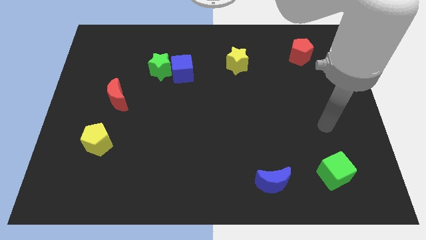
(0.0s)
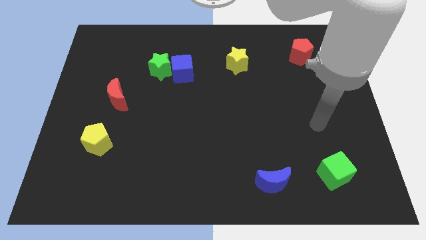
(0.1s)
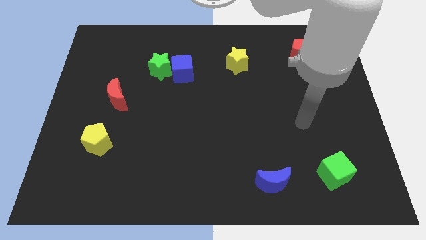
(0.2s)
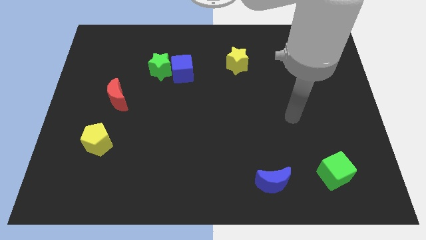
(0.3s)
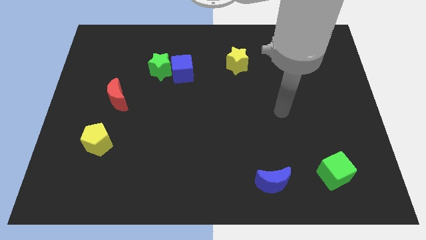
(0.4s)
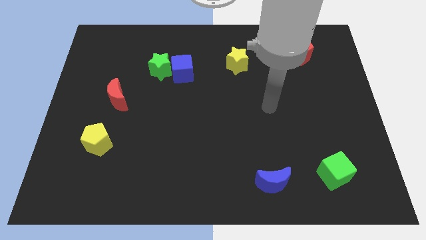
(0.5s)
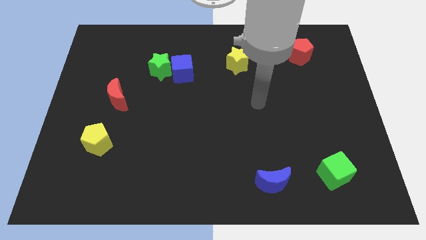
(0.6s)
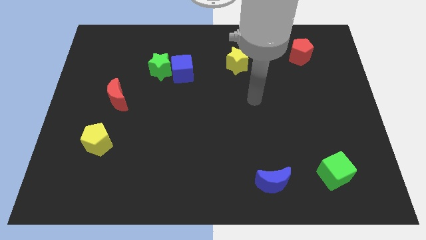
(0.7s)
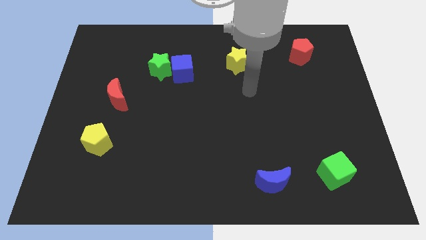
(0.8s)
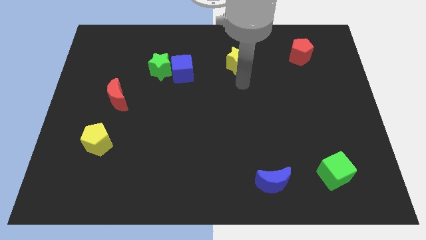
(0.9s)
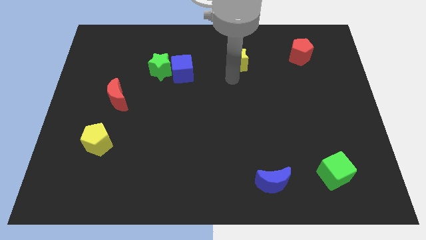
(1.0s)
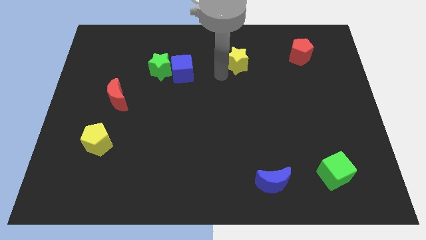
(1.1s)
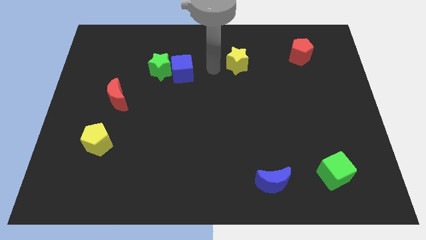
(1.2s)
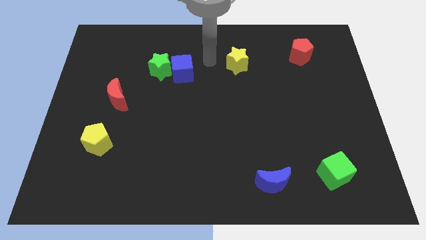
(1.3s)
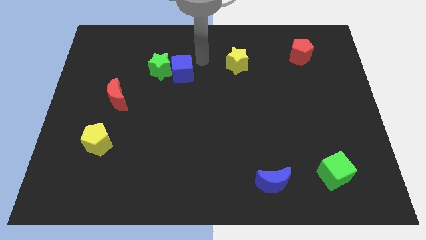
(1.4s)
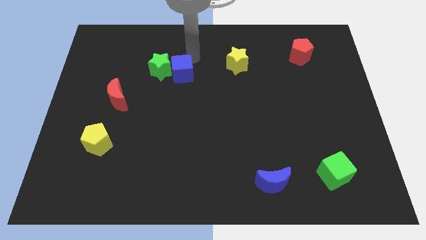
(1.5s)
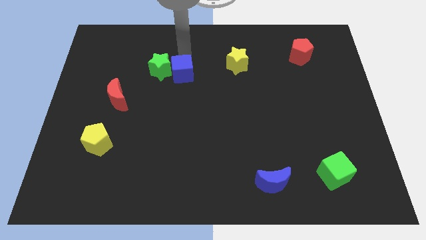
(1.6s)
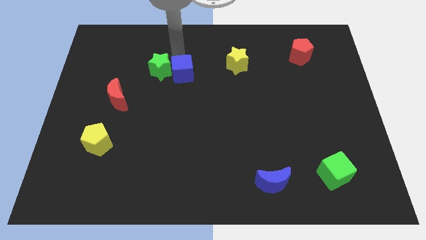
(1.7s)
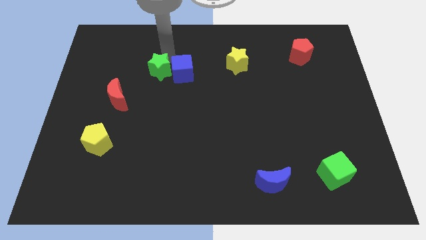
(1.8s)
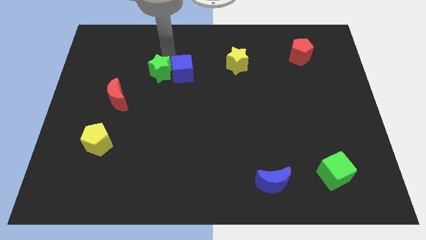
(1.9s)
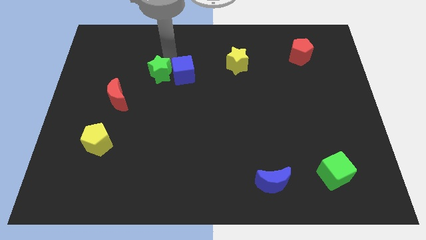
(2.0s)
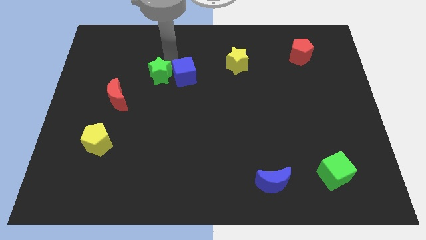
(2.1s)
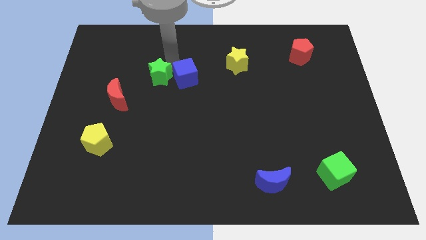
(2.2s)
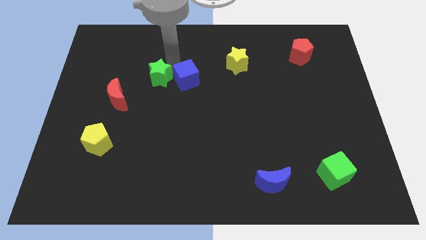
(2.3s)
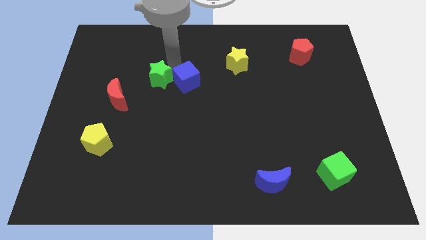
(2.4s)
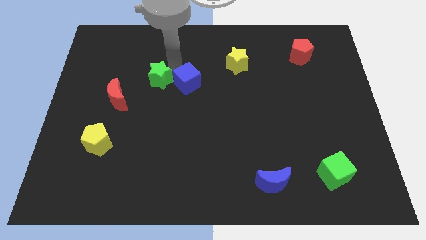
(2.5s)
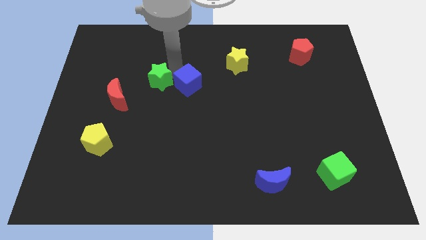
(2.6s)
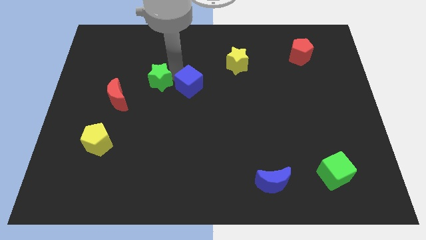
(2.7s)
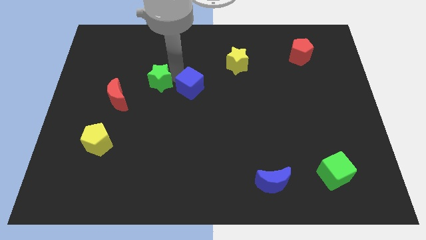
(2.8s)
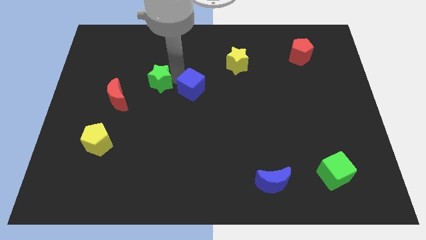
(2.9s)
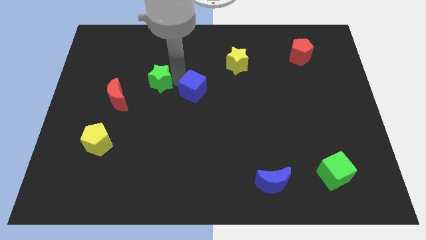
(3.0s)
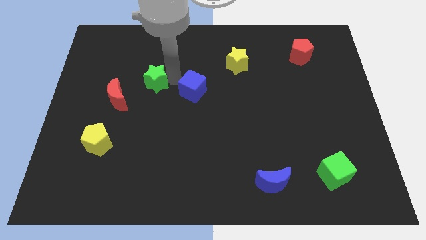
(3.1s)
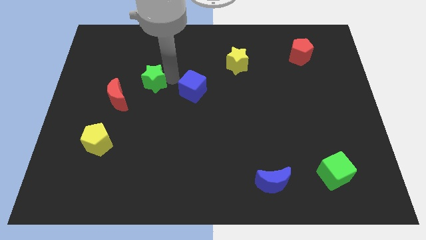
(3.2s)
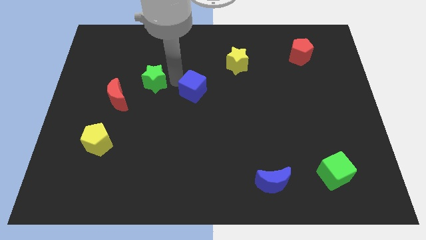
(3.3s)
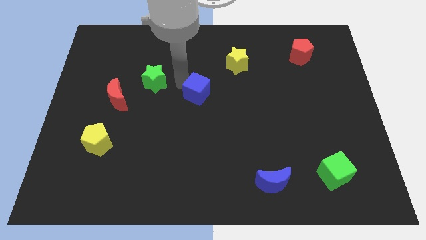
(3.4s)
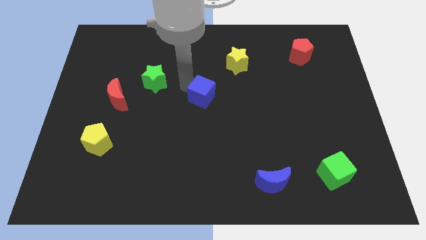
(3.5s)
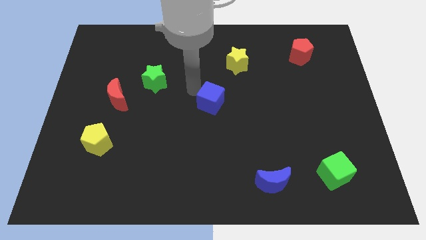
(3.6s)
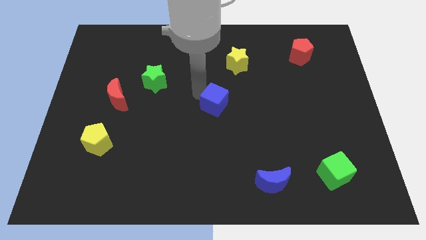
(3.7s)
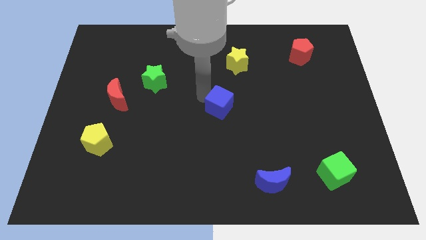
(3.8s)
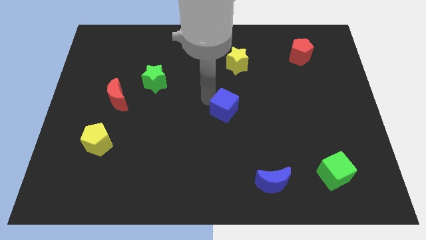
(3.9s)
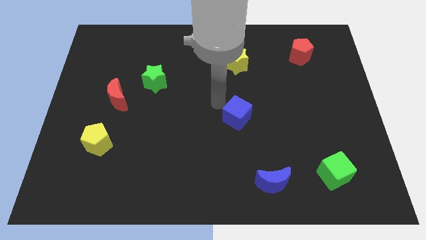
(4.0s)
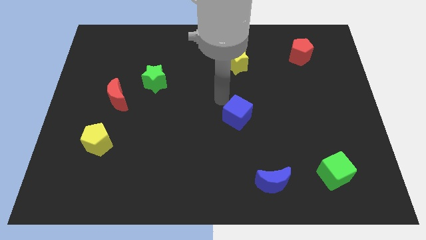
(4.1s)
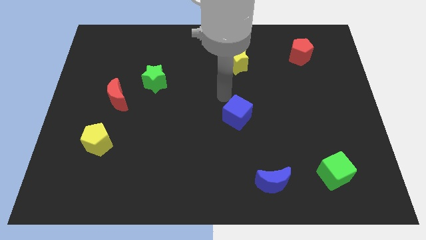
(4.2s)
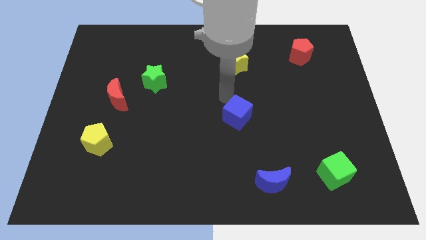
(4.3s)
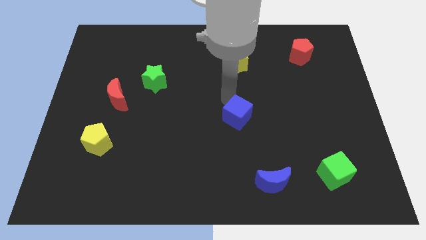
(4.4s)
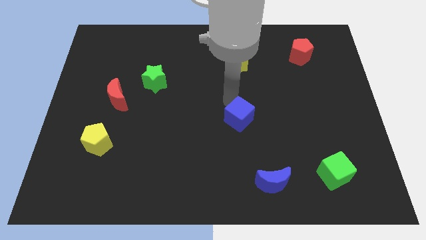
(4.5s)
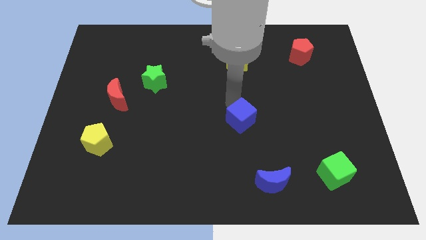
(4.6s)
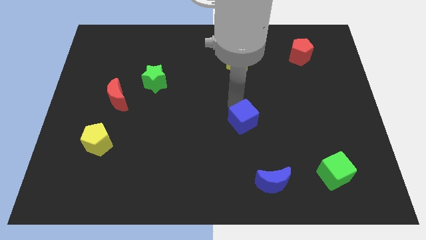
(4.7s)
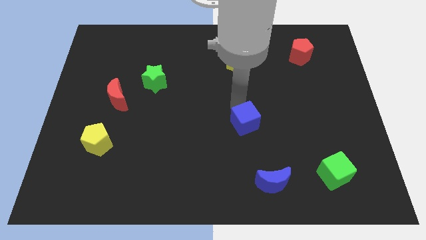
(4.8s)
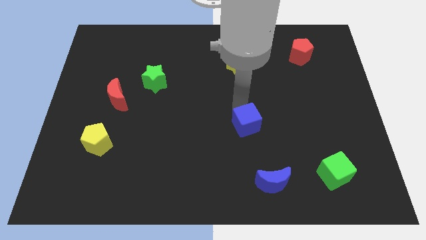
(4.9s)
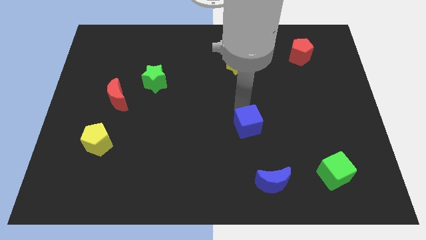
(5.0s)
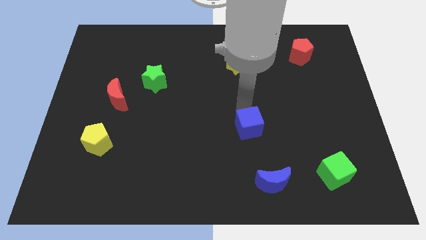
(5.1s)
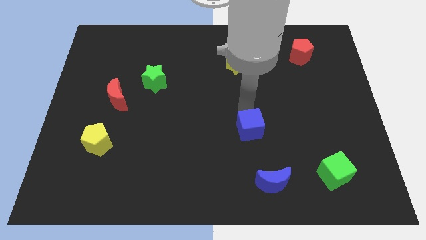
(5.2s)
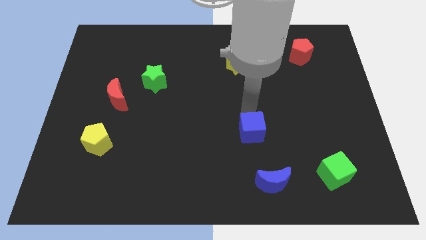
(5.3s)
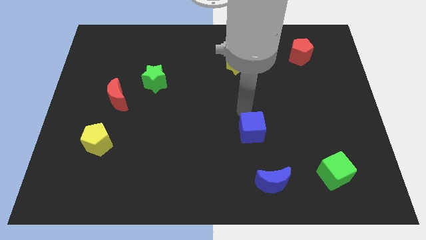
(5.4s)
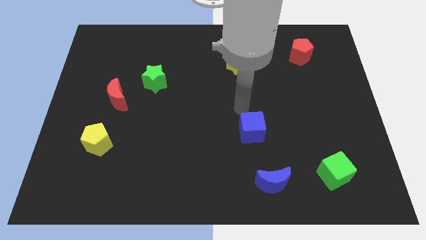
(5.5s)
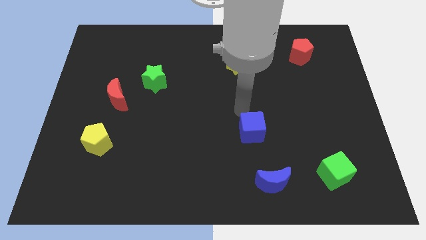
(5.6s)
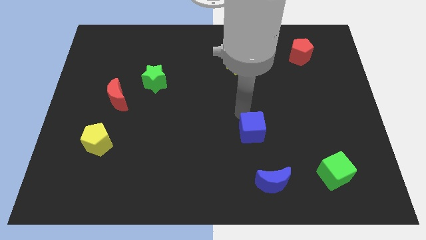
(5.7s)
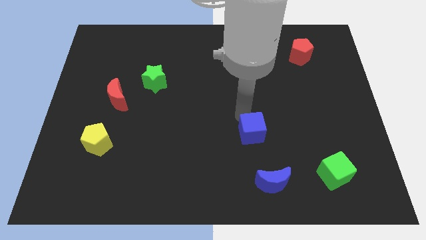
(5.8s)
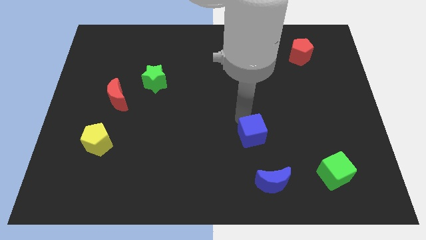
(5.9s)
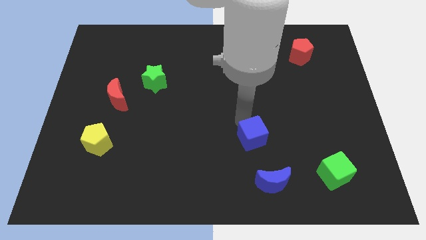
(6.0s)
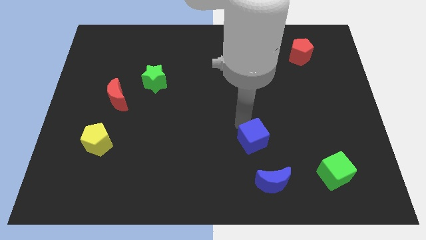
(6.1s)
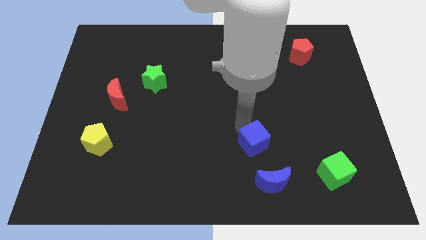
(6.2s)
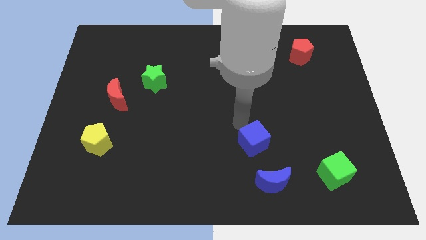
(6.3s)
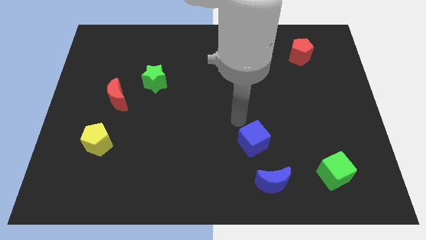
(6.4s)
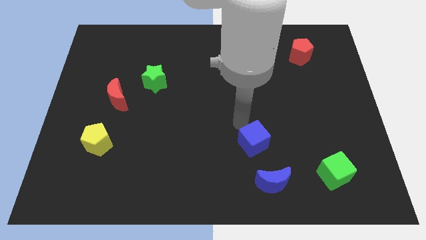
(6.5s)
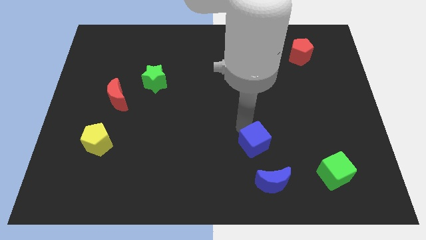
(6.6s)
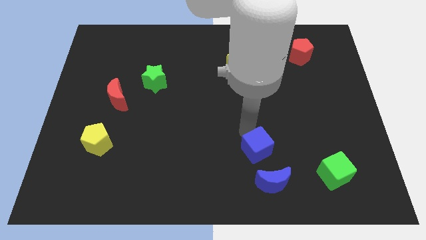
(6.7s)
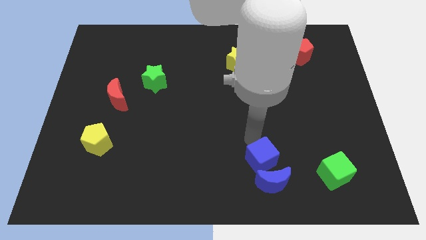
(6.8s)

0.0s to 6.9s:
move the blue cube towards the blue moon
